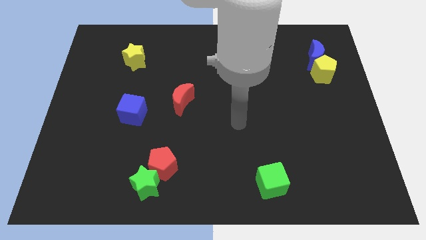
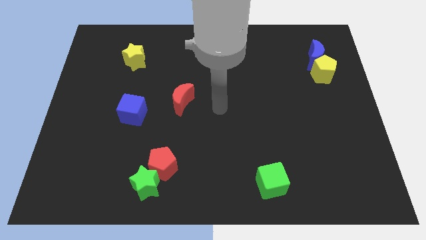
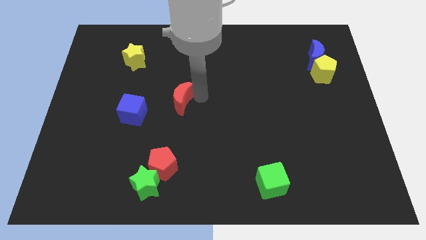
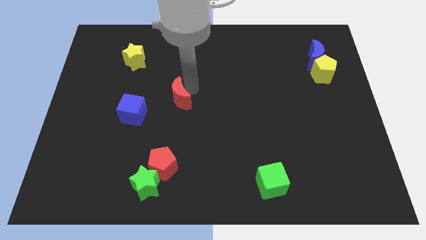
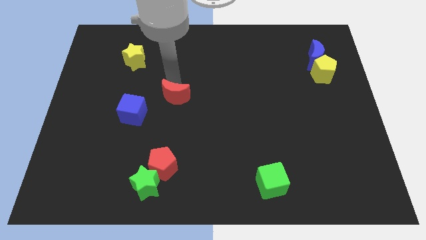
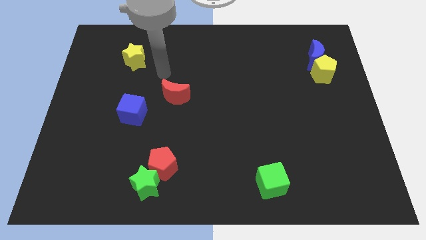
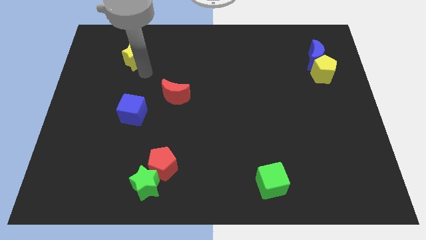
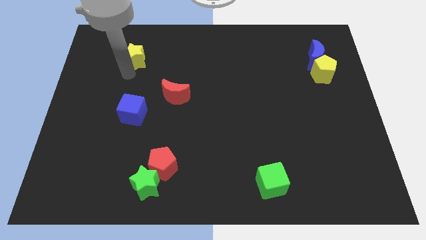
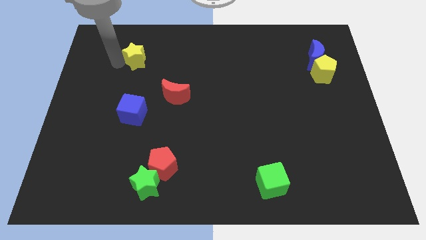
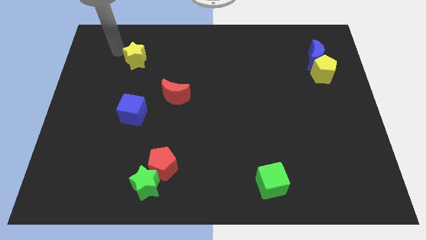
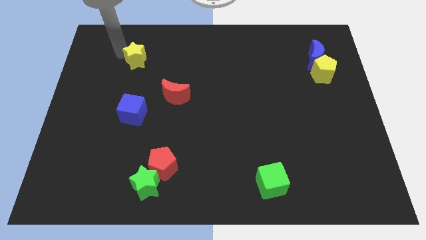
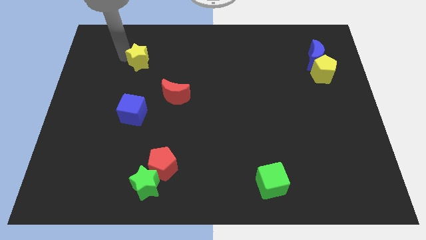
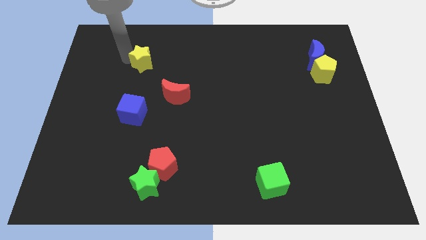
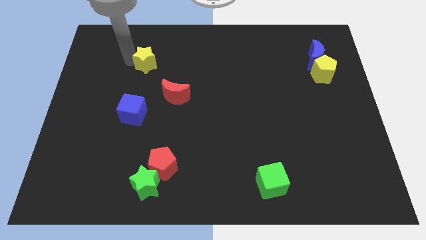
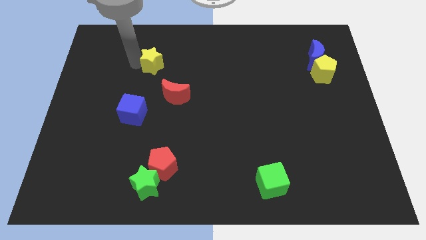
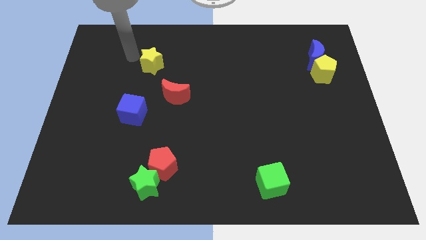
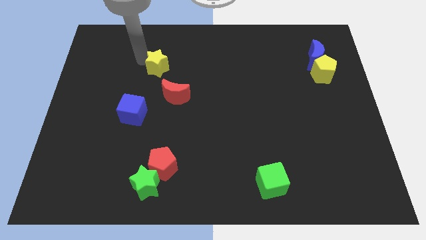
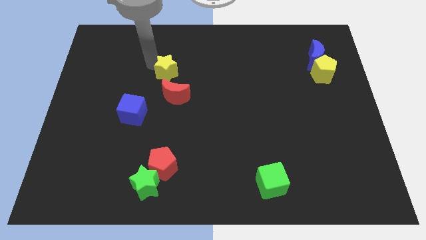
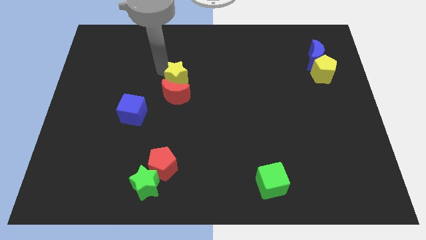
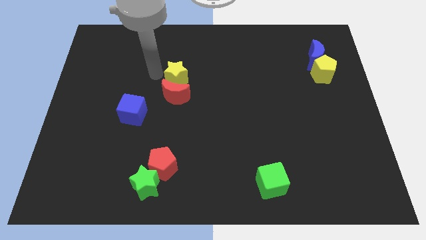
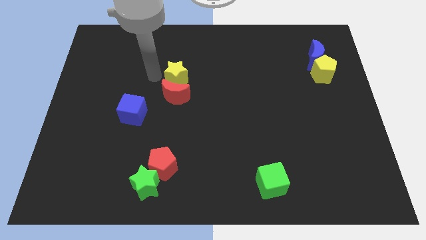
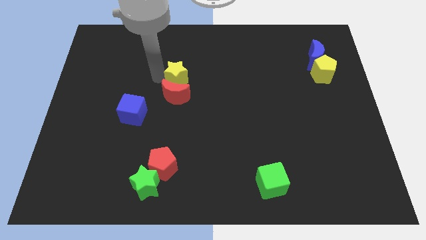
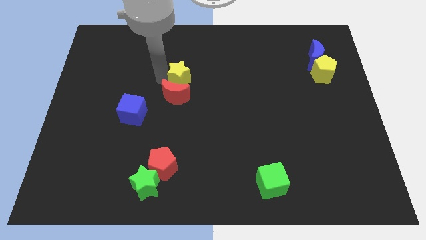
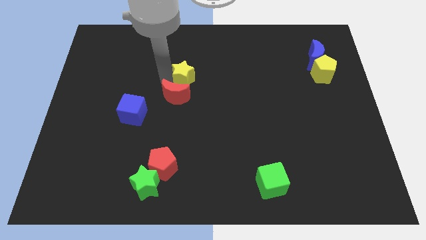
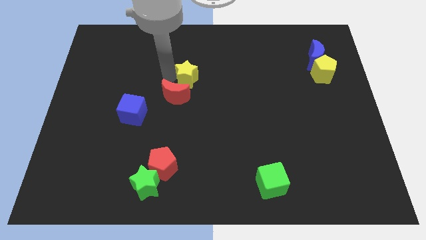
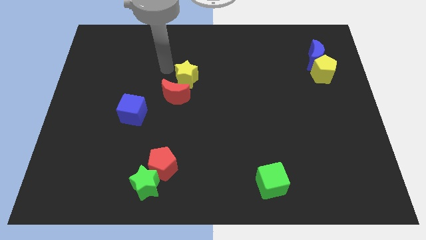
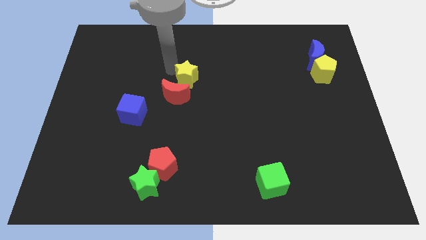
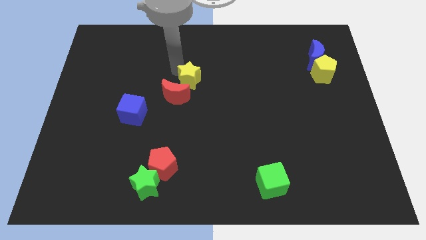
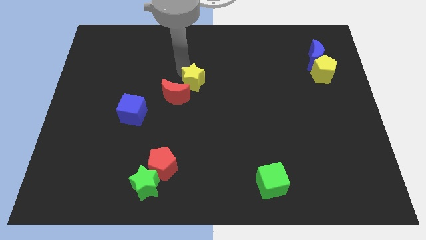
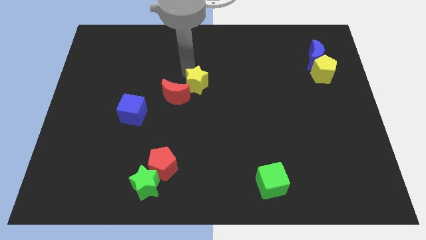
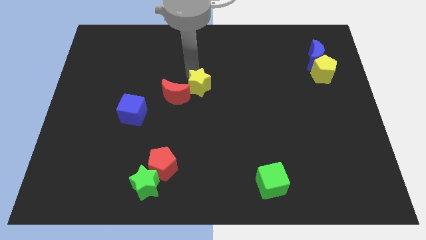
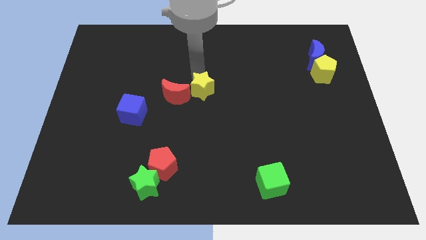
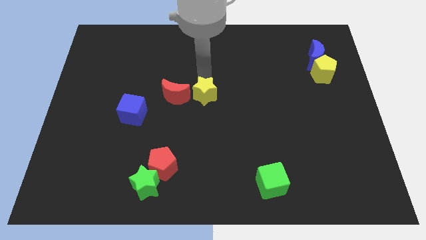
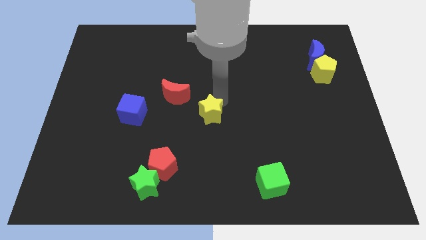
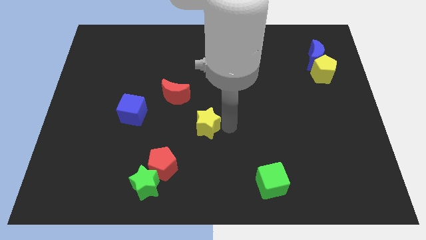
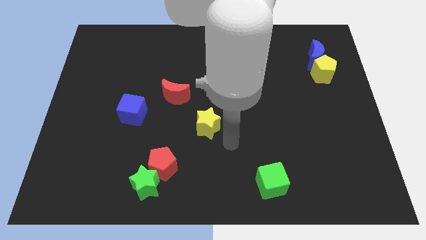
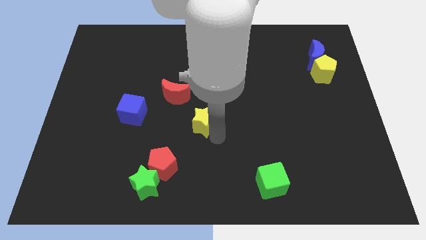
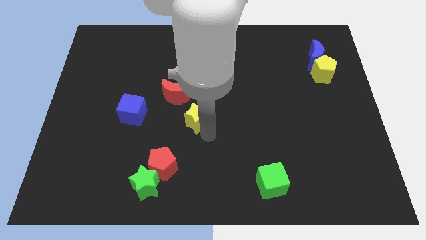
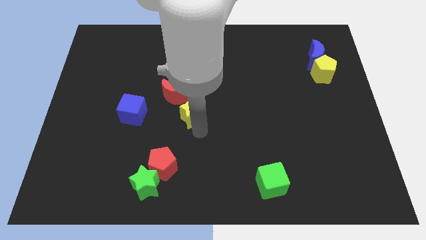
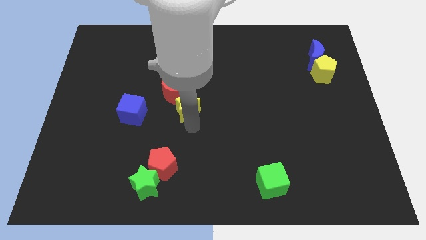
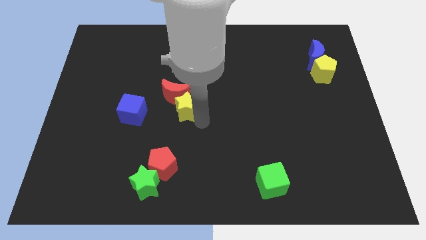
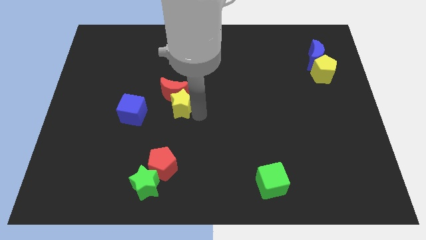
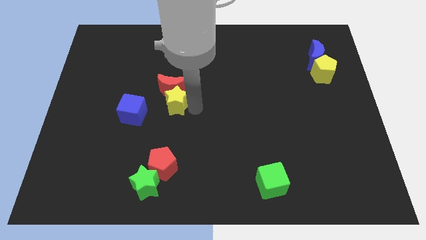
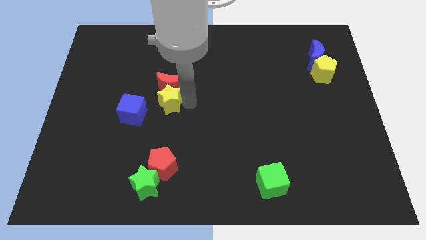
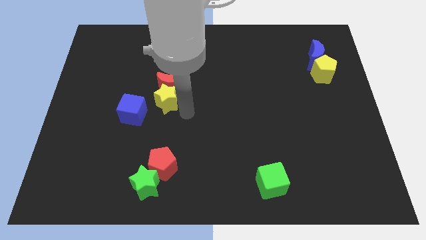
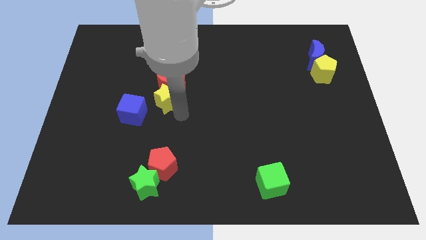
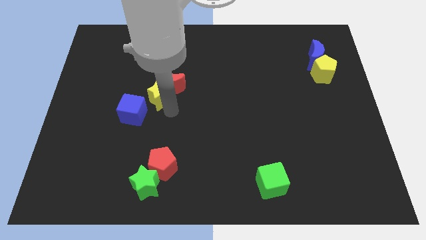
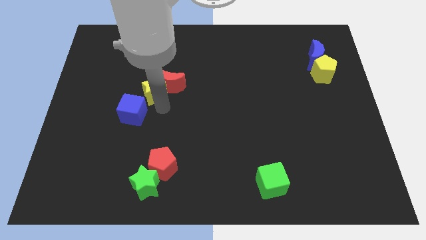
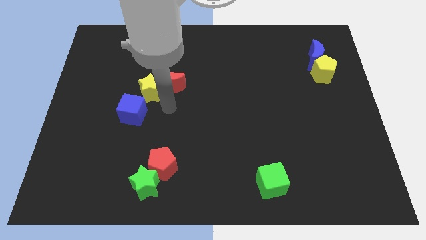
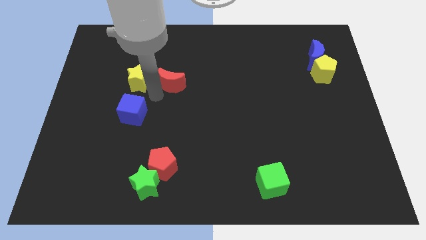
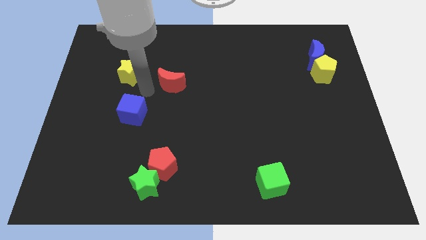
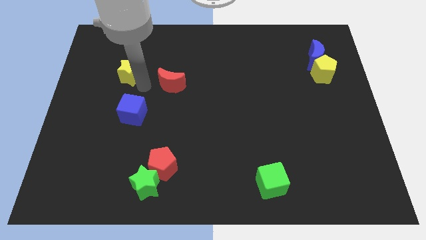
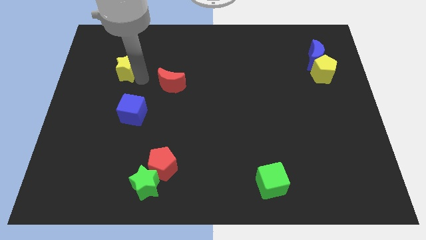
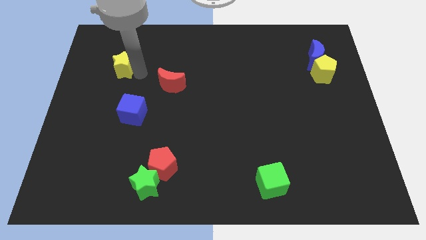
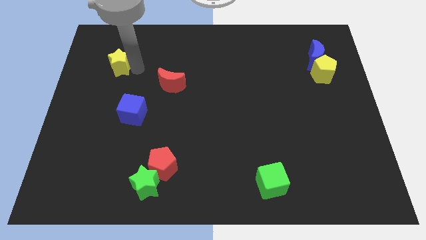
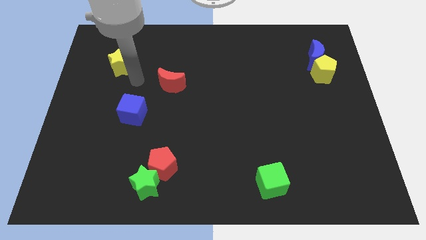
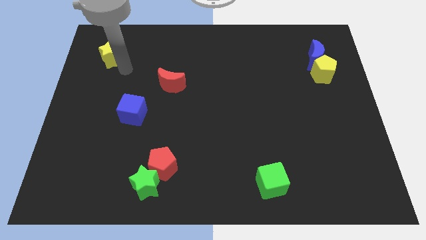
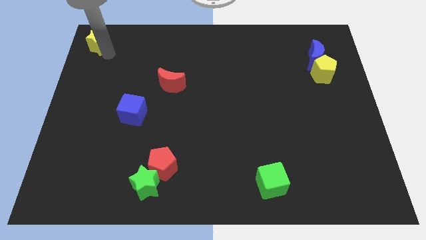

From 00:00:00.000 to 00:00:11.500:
put the yellow star to the top left
